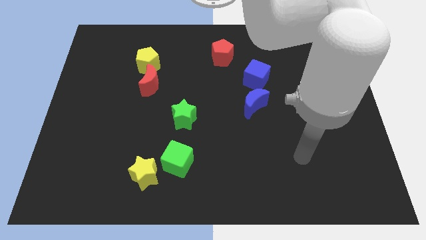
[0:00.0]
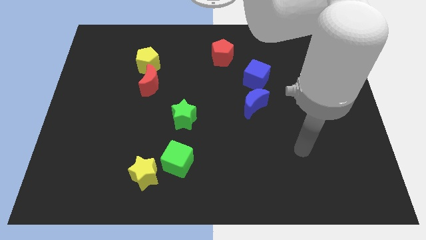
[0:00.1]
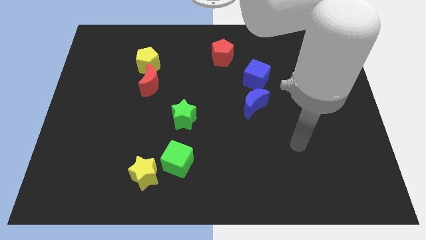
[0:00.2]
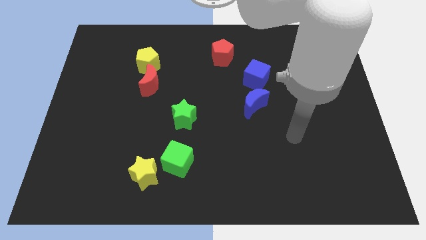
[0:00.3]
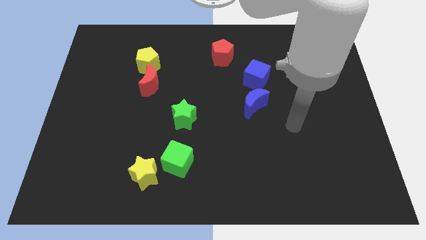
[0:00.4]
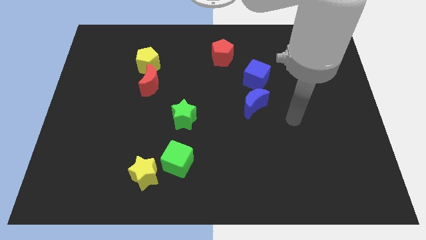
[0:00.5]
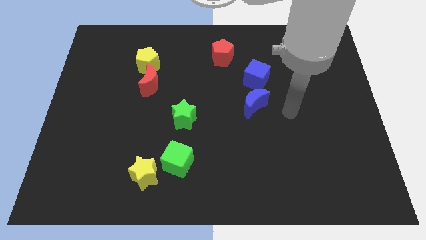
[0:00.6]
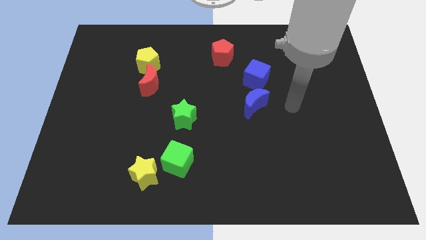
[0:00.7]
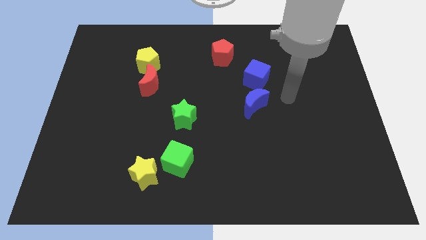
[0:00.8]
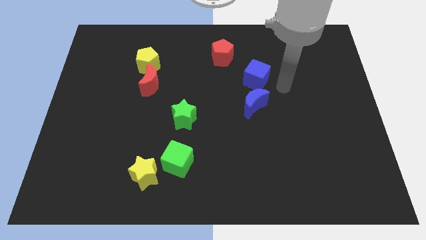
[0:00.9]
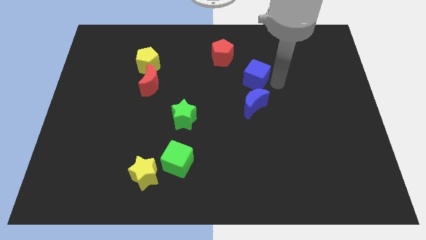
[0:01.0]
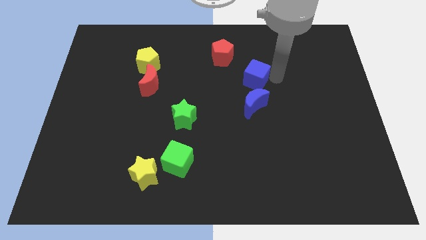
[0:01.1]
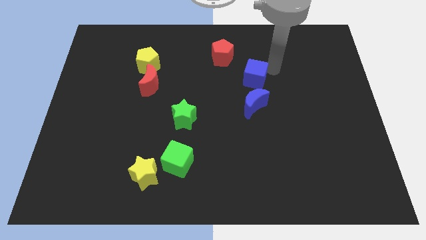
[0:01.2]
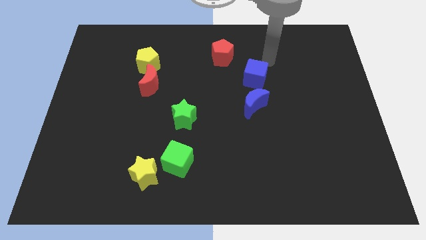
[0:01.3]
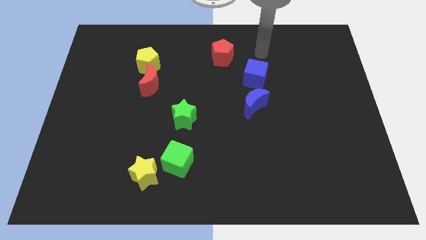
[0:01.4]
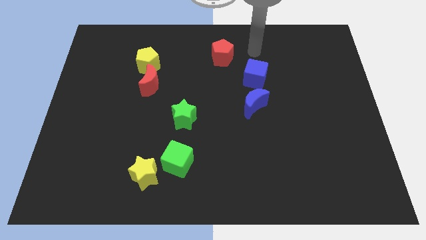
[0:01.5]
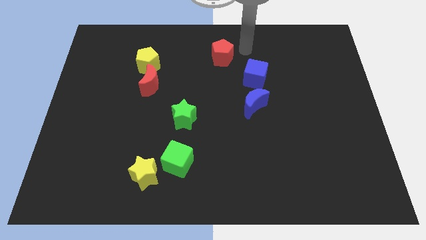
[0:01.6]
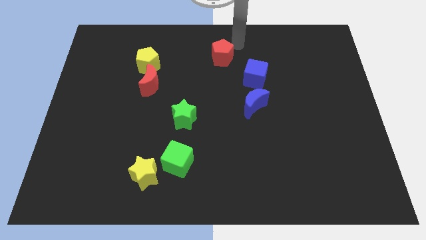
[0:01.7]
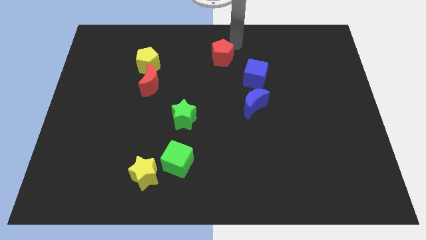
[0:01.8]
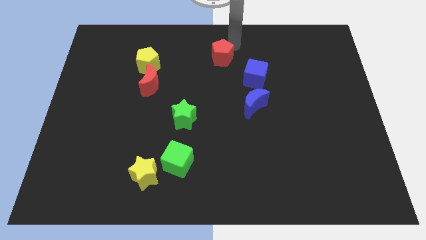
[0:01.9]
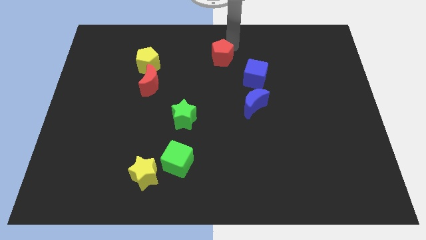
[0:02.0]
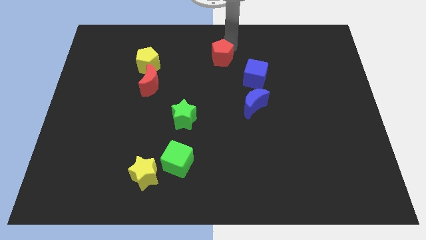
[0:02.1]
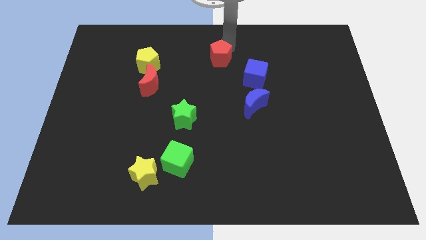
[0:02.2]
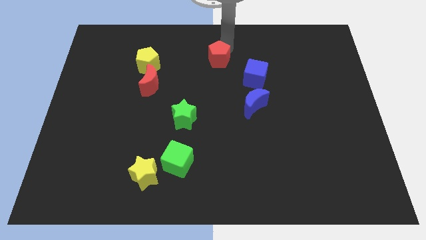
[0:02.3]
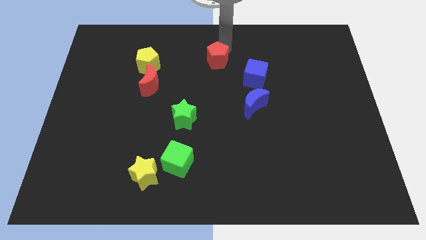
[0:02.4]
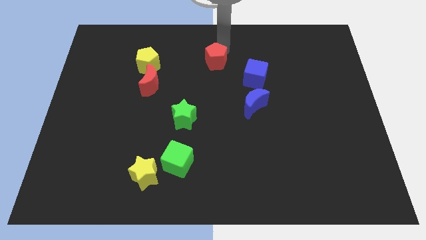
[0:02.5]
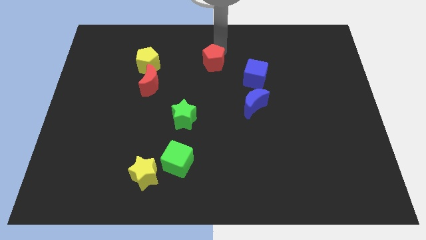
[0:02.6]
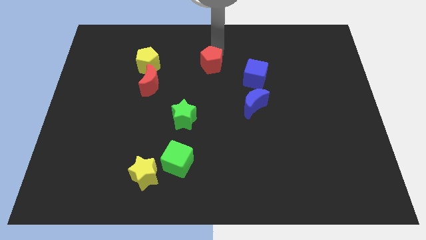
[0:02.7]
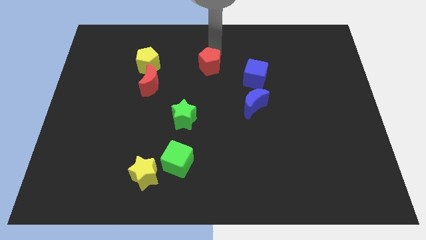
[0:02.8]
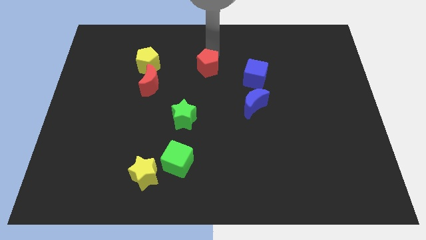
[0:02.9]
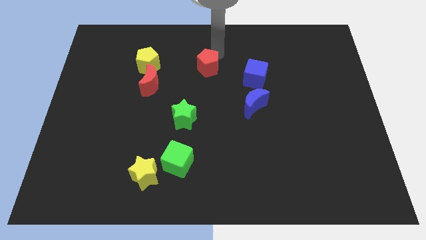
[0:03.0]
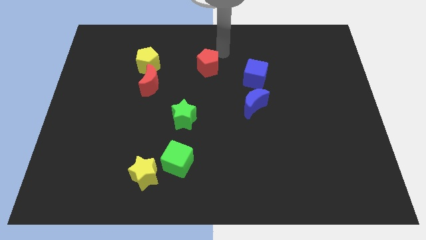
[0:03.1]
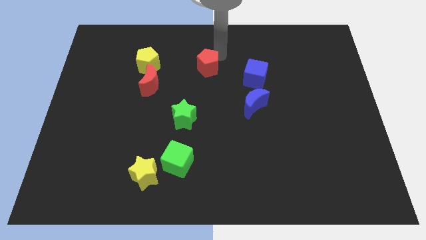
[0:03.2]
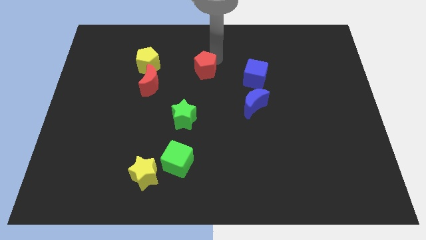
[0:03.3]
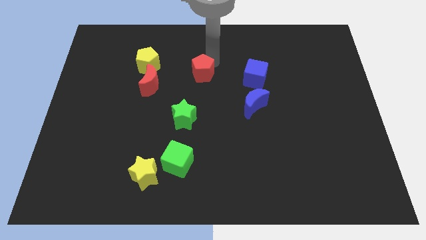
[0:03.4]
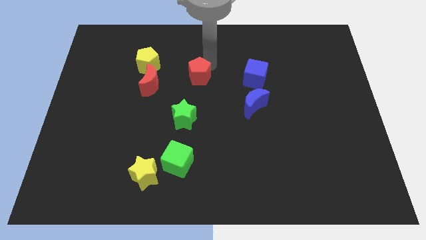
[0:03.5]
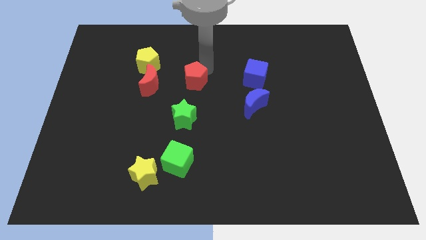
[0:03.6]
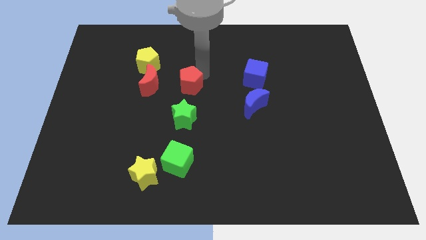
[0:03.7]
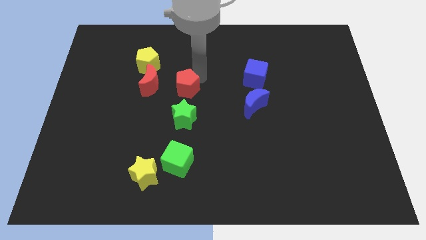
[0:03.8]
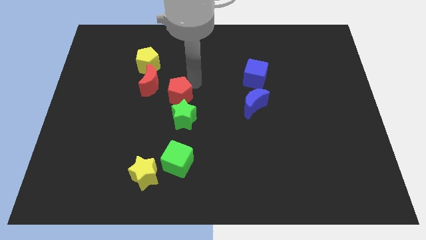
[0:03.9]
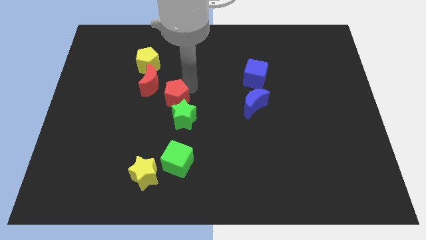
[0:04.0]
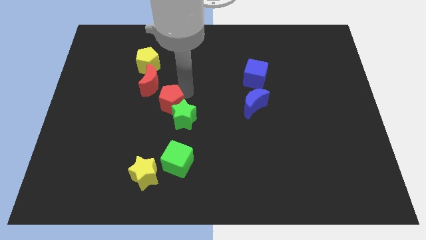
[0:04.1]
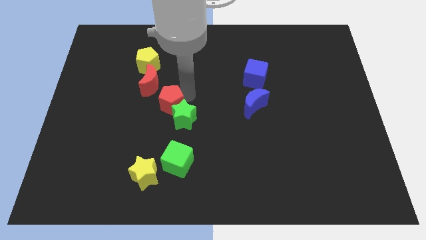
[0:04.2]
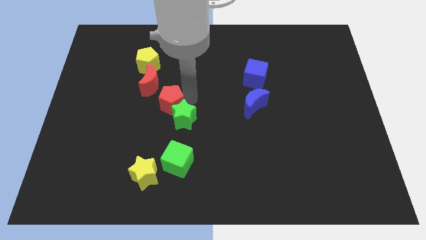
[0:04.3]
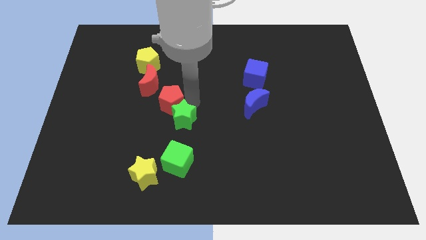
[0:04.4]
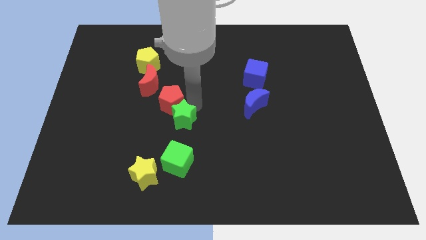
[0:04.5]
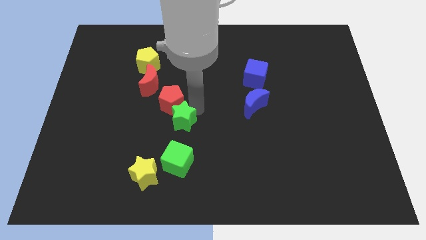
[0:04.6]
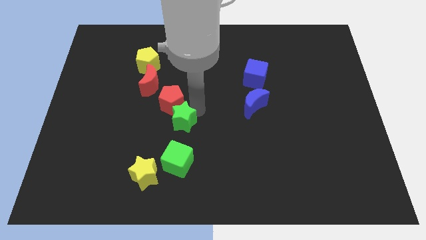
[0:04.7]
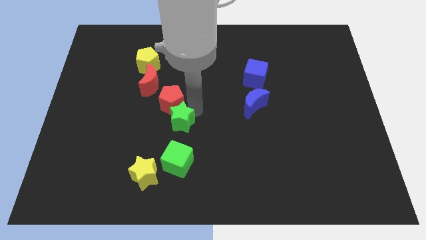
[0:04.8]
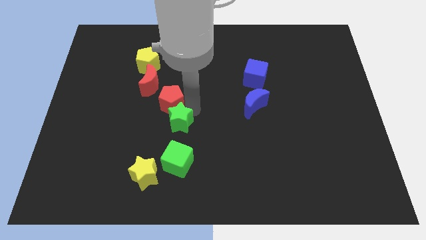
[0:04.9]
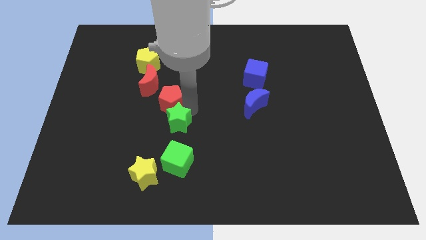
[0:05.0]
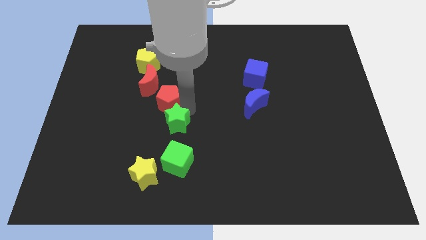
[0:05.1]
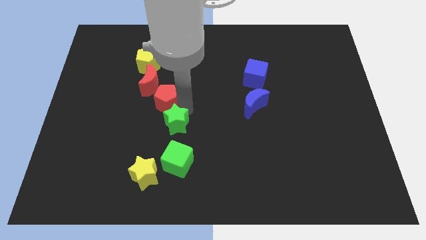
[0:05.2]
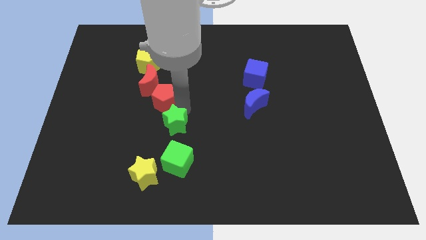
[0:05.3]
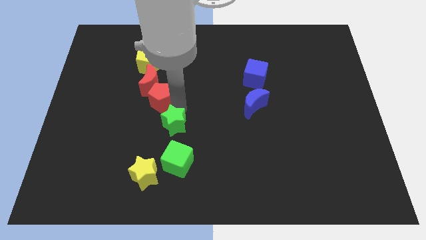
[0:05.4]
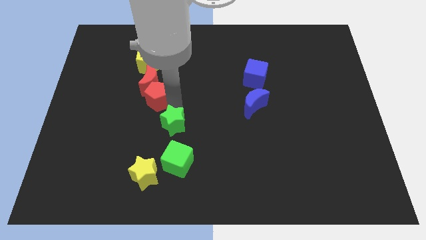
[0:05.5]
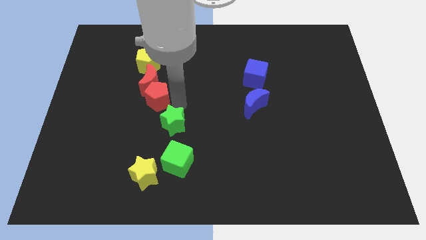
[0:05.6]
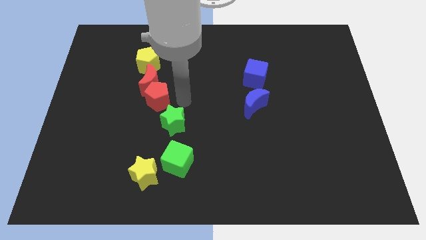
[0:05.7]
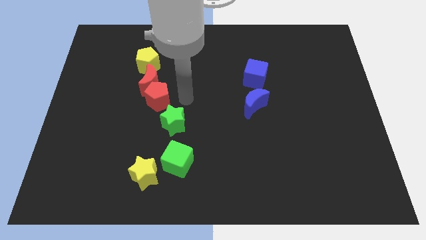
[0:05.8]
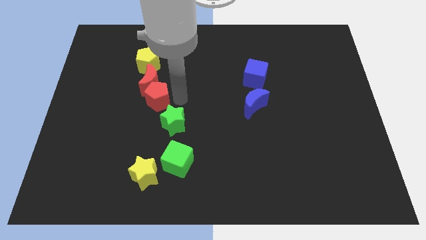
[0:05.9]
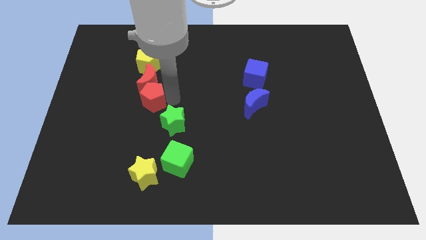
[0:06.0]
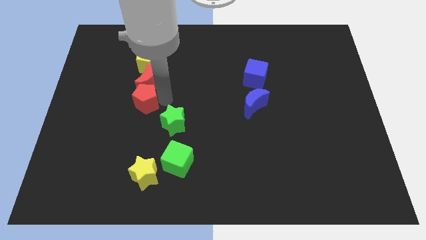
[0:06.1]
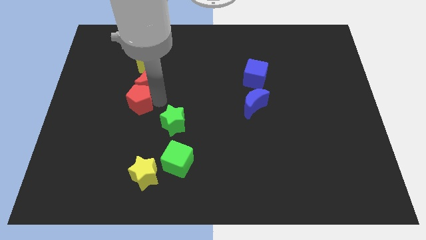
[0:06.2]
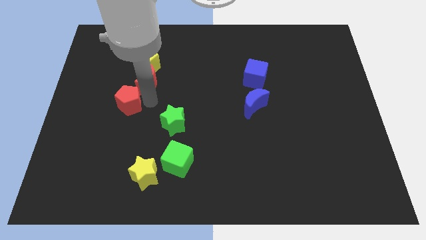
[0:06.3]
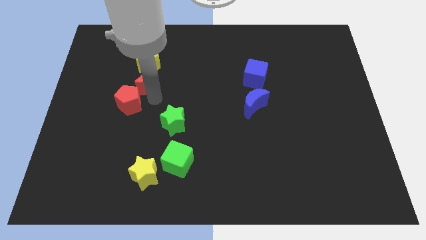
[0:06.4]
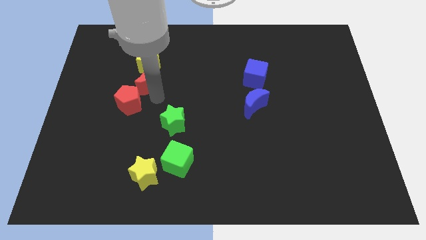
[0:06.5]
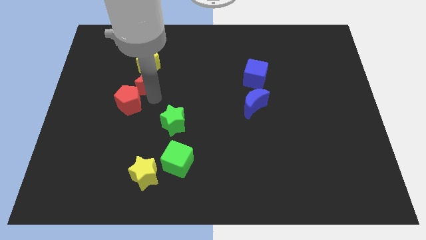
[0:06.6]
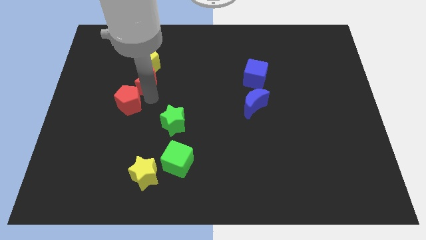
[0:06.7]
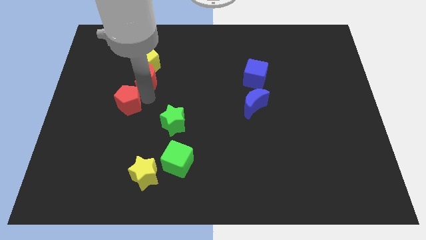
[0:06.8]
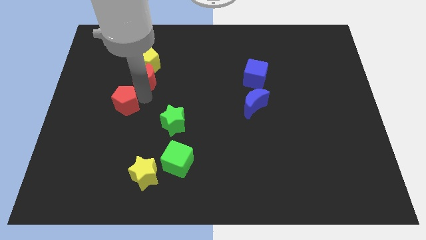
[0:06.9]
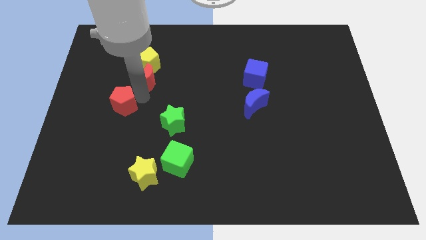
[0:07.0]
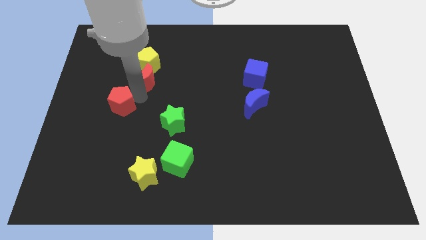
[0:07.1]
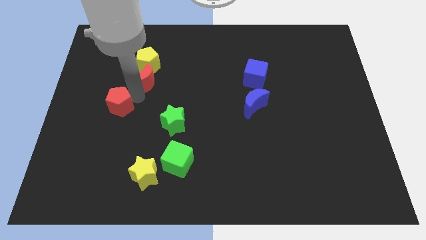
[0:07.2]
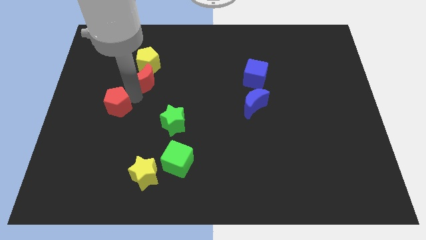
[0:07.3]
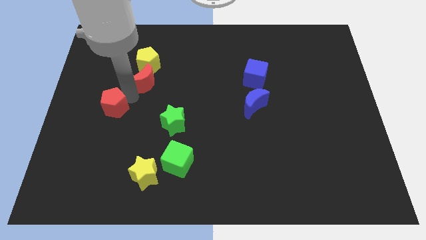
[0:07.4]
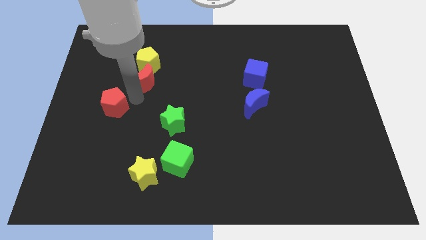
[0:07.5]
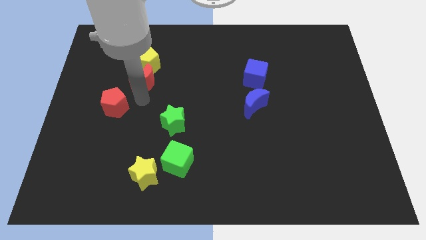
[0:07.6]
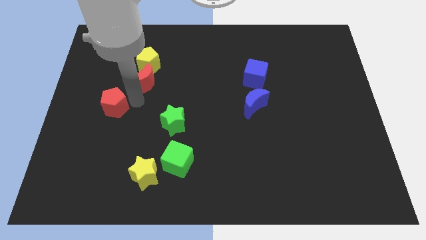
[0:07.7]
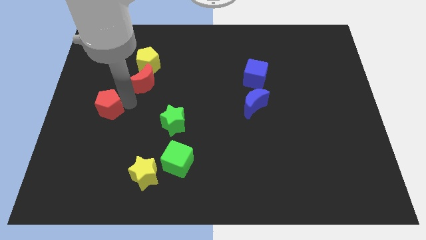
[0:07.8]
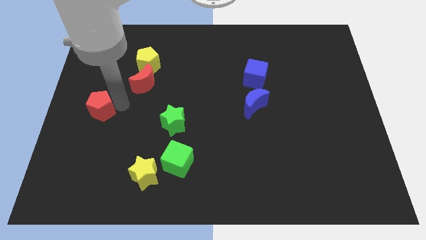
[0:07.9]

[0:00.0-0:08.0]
move the red pentagon to the left side of the board
